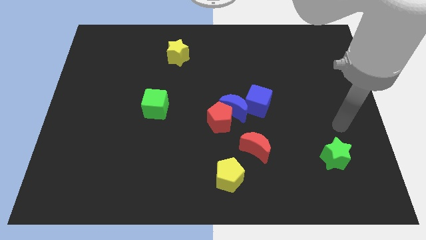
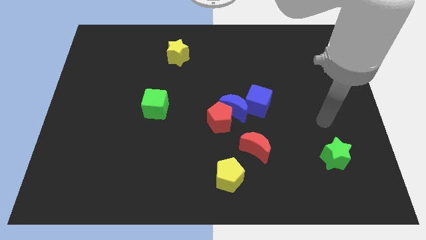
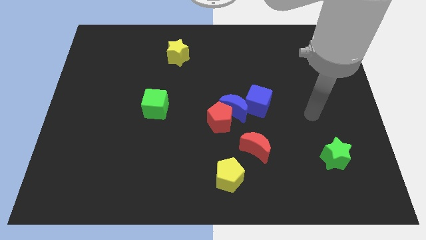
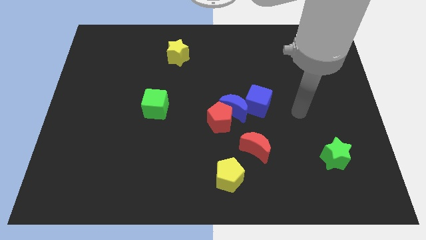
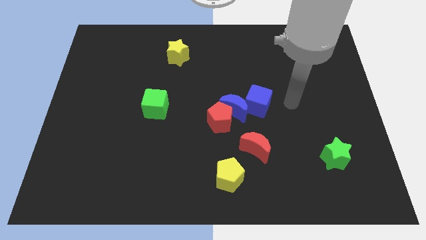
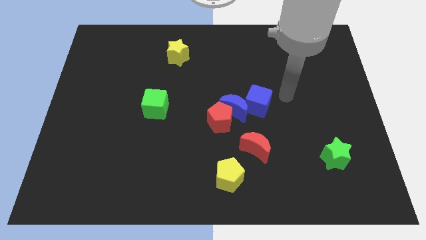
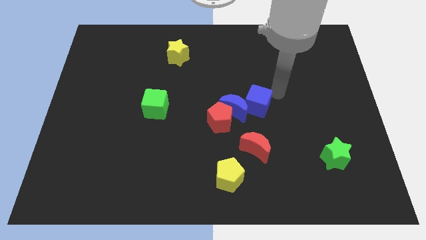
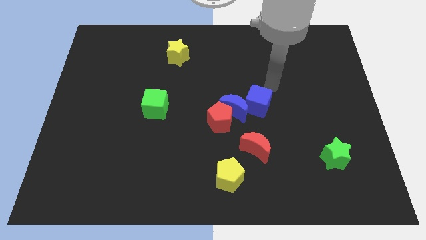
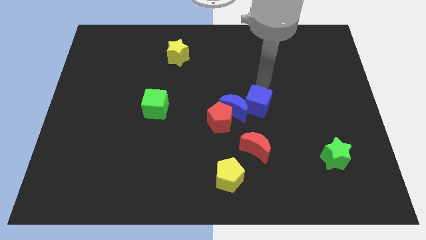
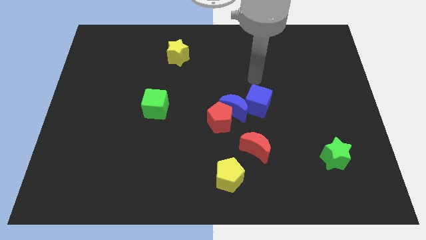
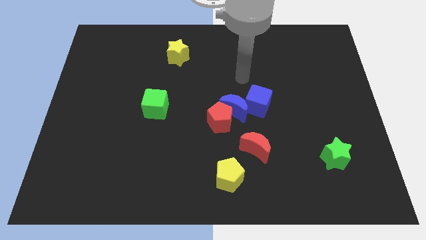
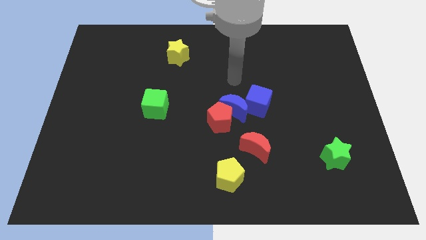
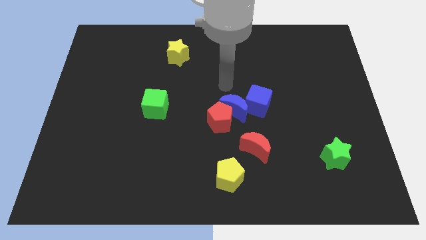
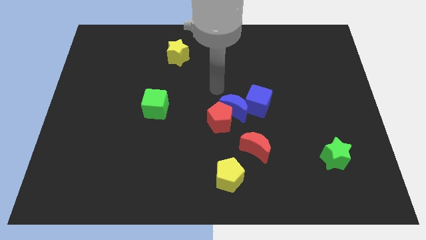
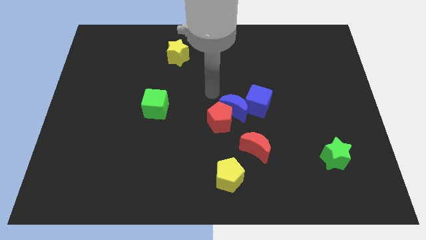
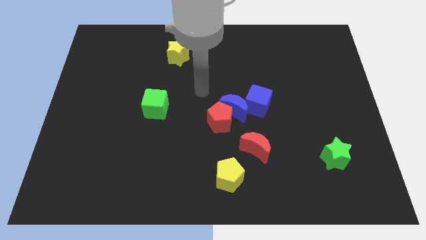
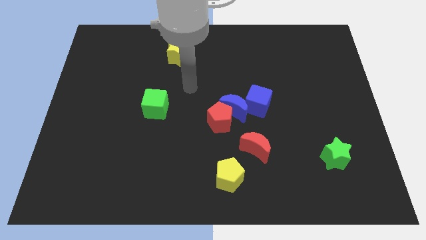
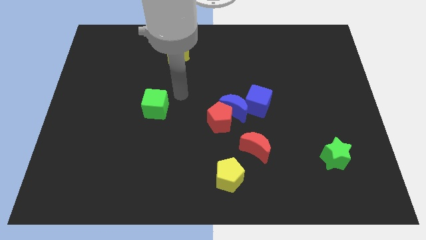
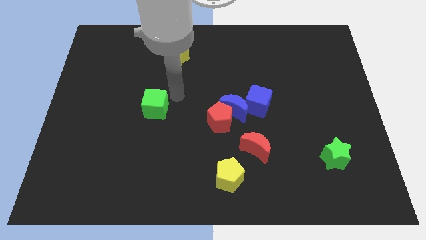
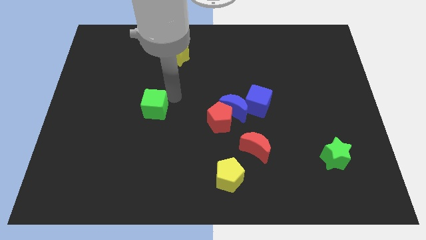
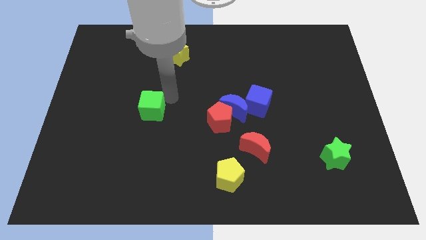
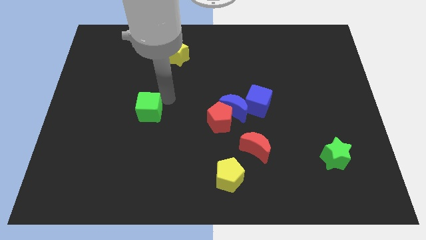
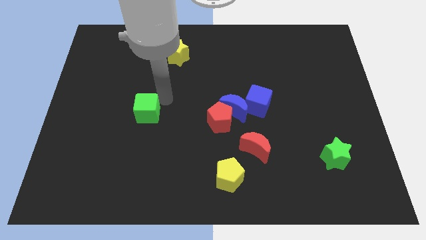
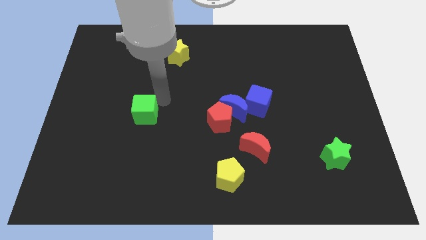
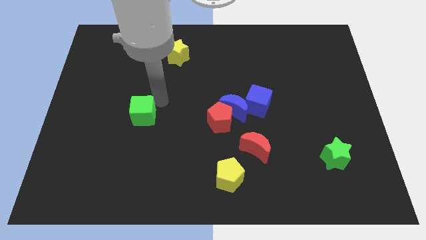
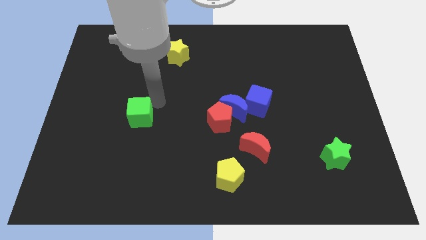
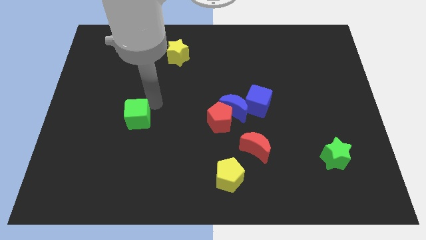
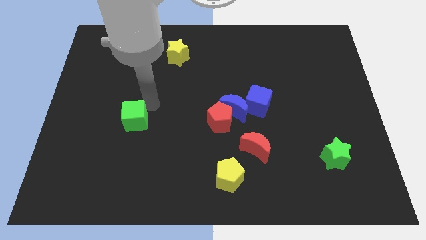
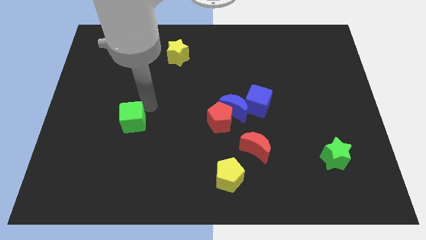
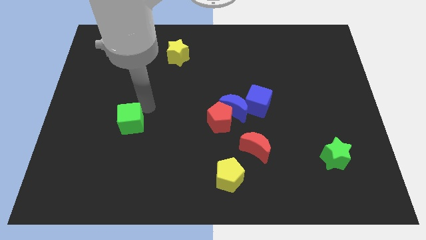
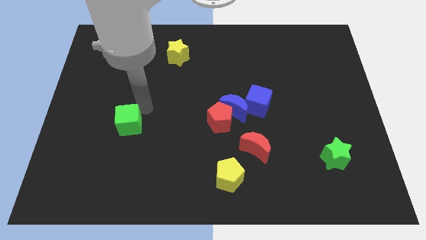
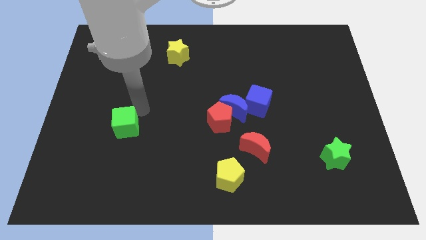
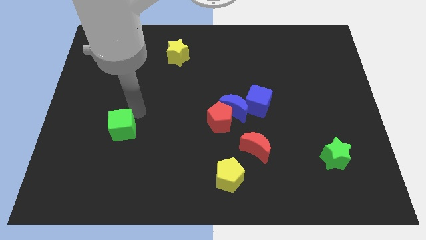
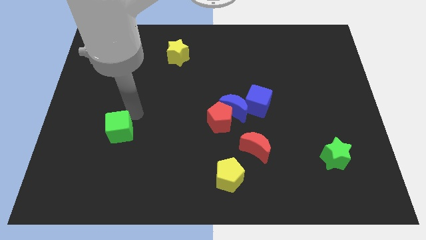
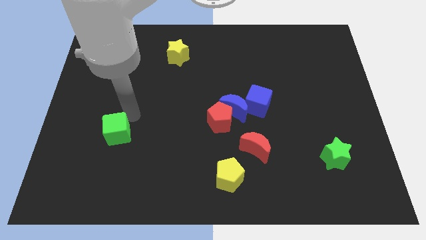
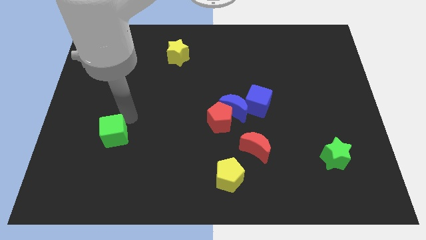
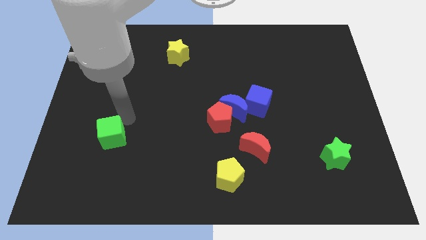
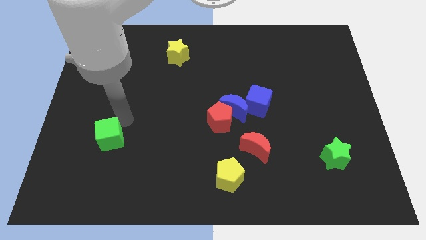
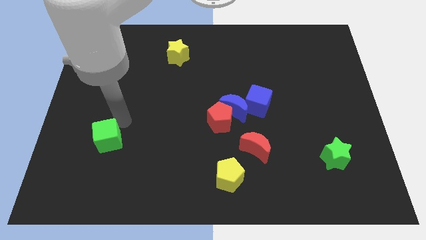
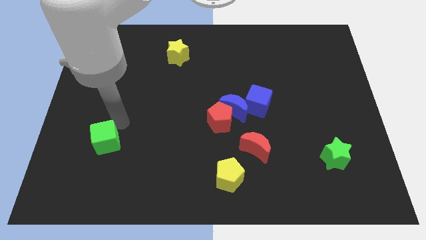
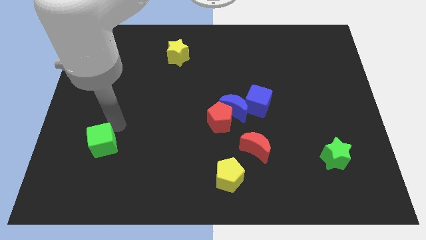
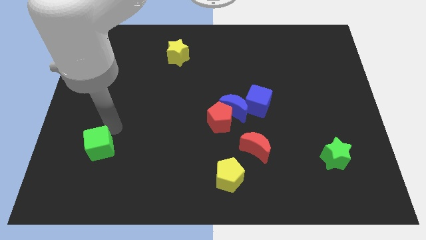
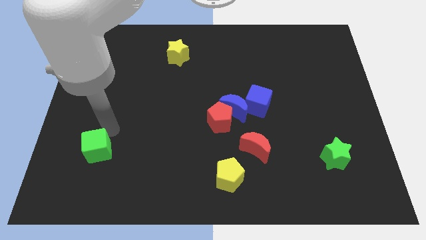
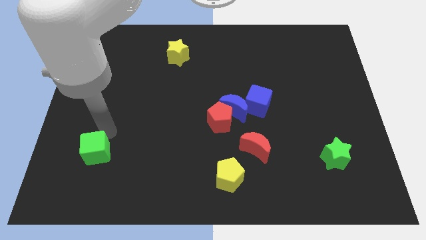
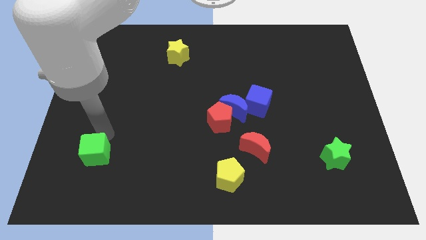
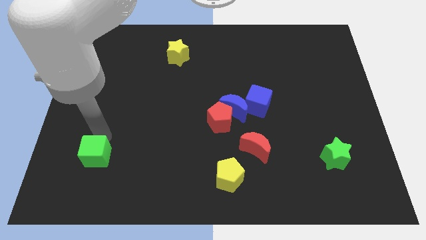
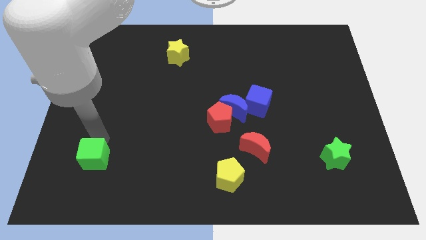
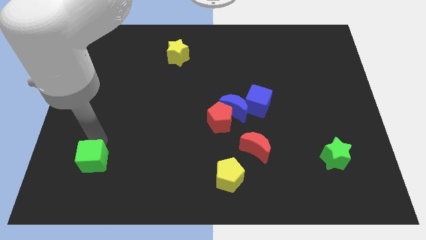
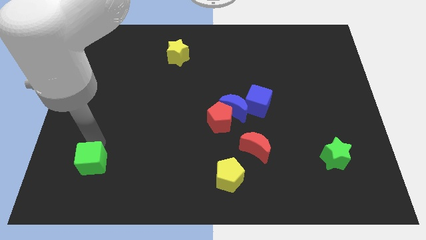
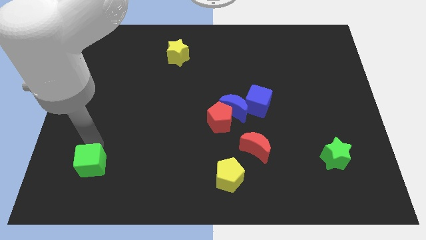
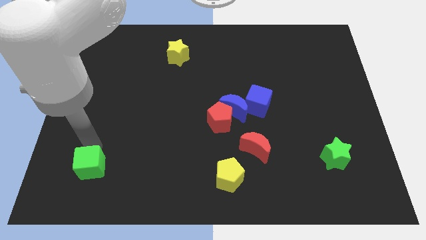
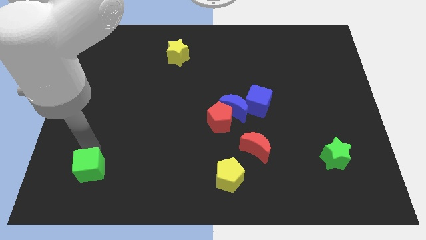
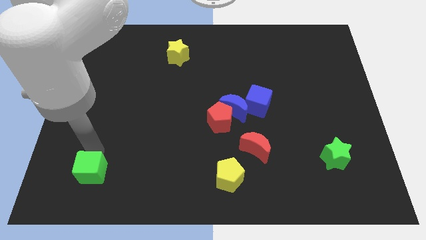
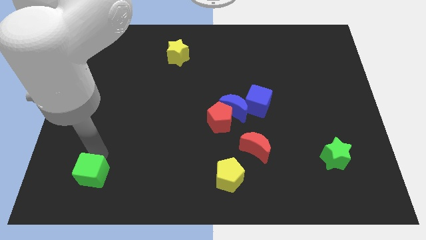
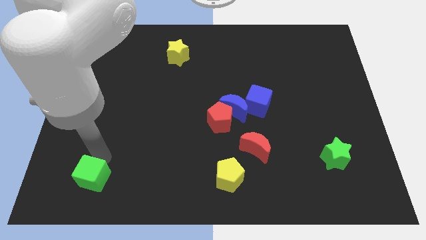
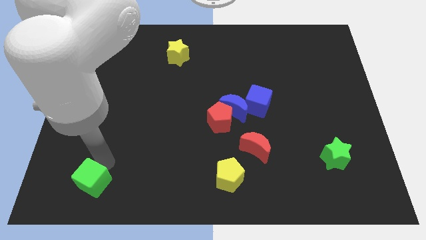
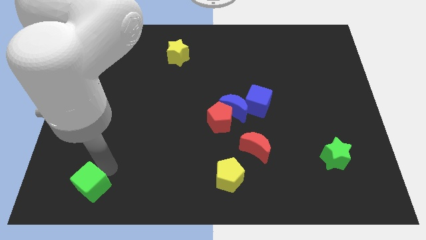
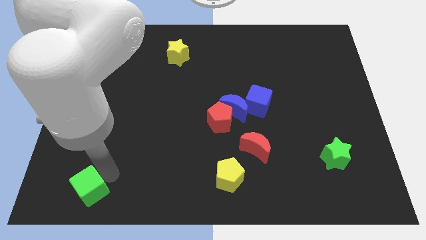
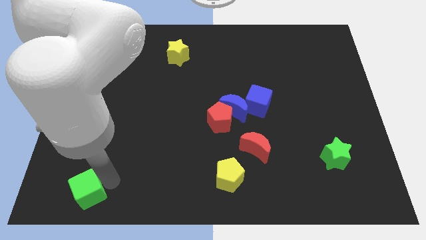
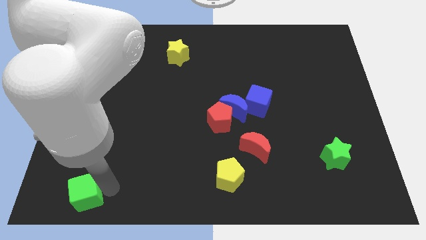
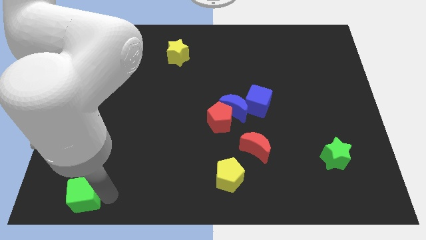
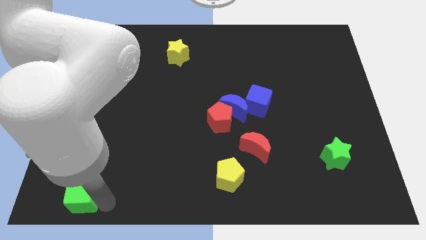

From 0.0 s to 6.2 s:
move the green cube to the lower left corner
